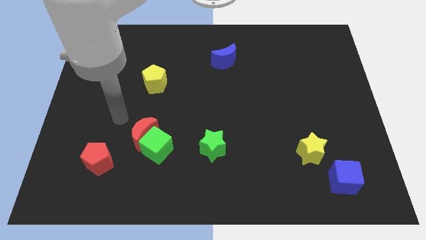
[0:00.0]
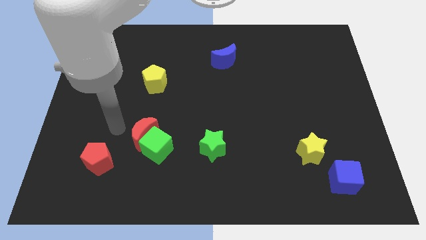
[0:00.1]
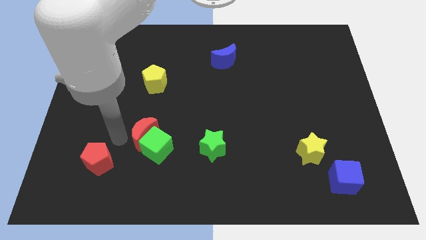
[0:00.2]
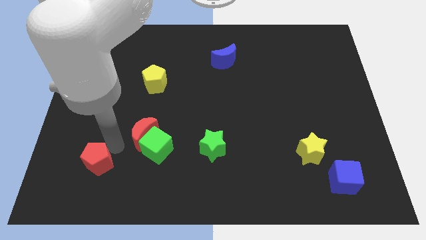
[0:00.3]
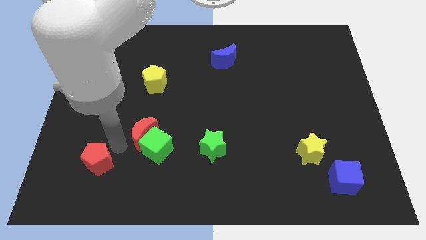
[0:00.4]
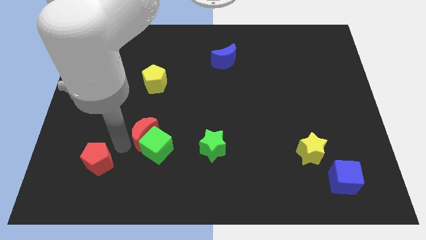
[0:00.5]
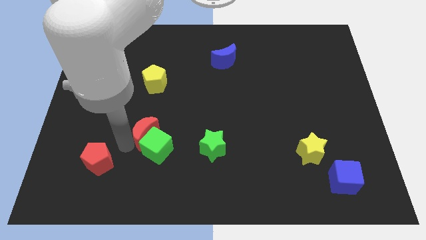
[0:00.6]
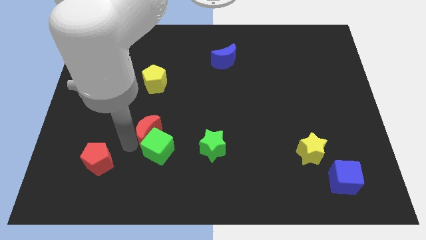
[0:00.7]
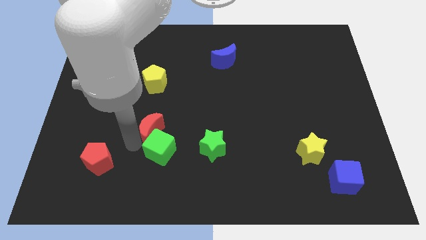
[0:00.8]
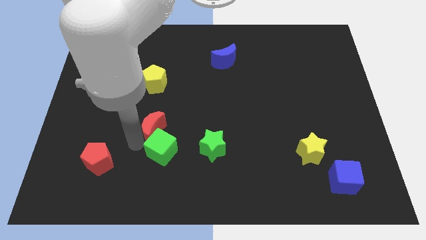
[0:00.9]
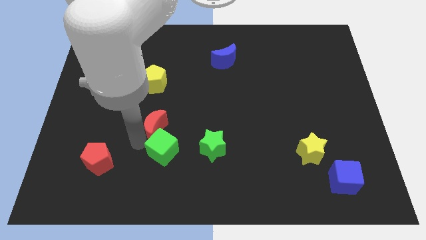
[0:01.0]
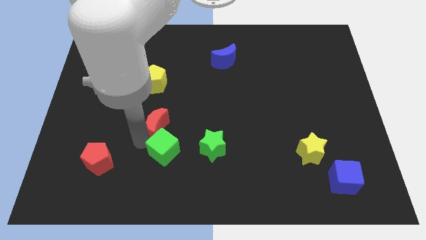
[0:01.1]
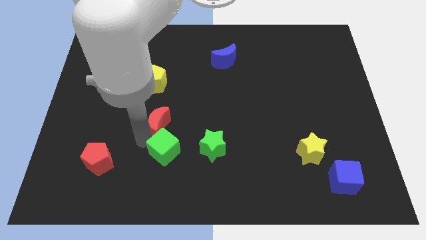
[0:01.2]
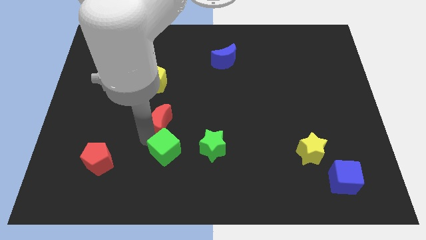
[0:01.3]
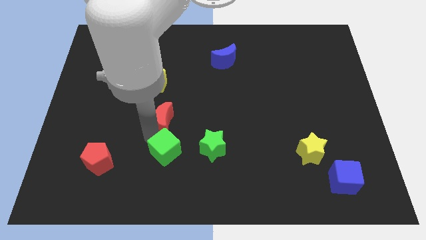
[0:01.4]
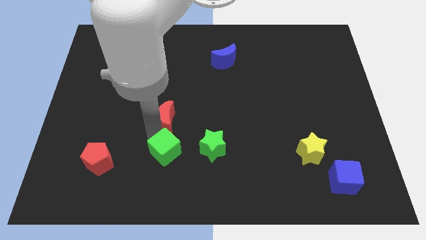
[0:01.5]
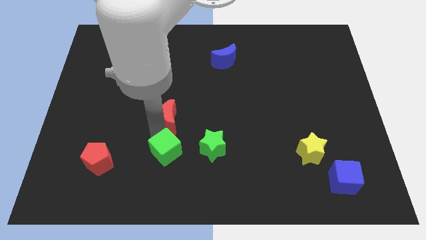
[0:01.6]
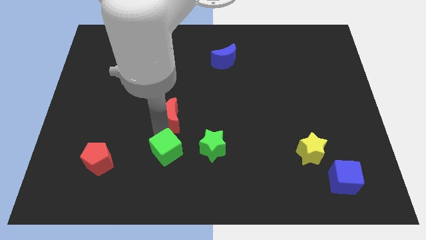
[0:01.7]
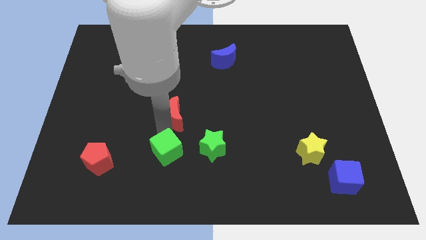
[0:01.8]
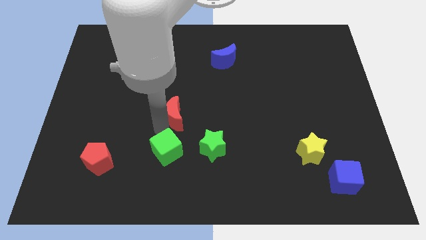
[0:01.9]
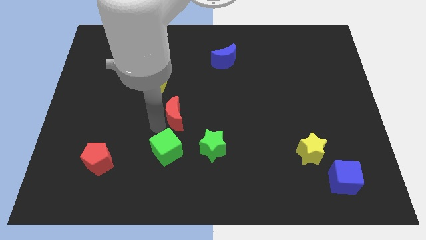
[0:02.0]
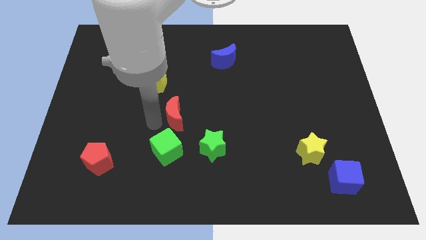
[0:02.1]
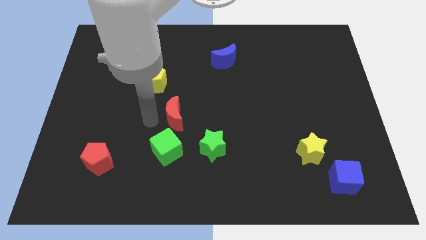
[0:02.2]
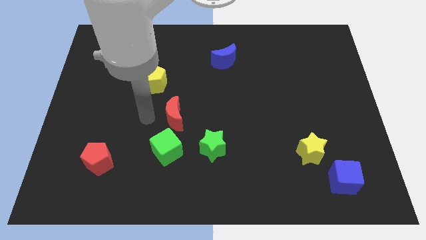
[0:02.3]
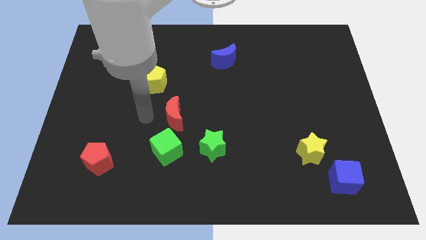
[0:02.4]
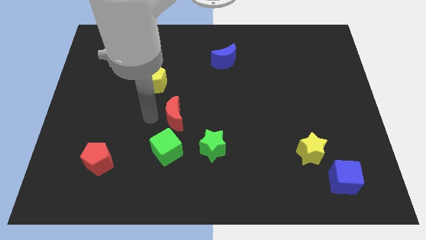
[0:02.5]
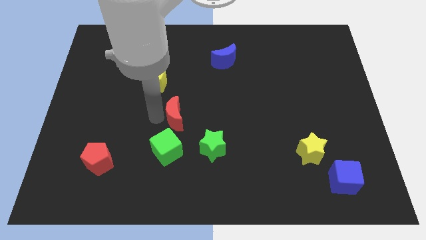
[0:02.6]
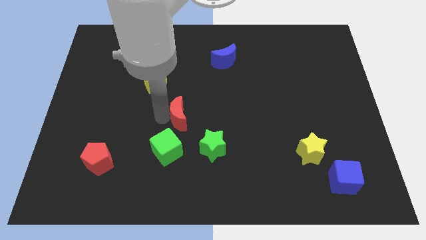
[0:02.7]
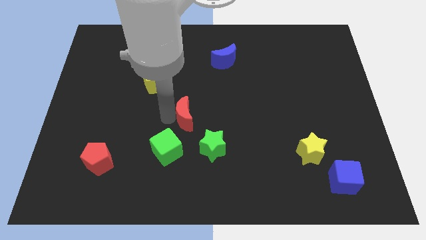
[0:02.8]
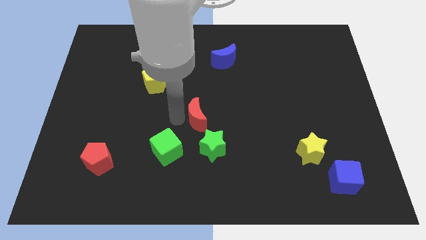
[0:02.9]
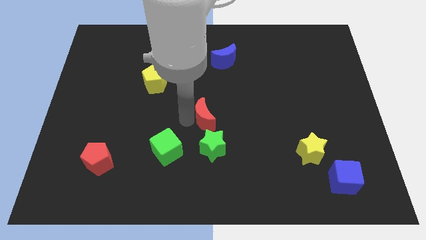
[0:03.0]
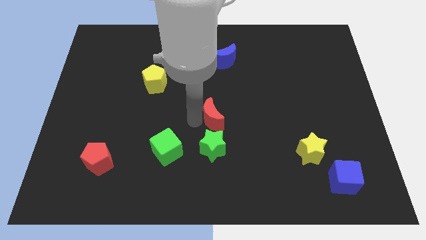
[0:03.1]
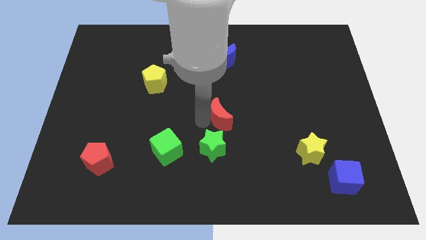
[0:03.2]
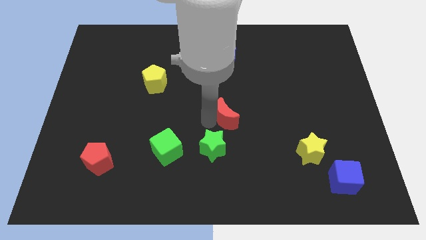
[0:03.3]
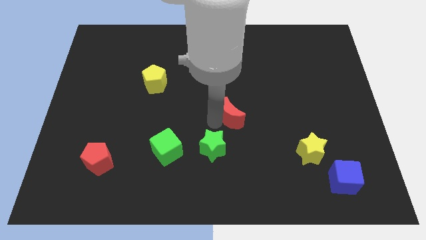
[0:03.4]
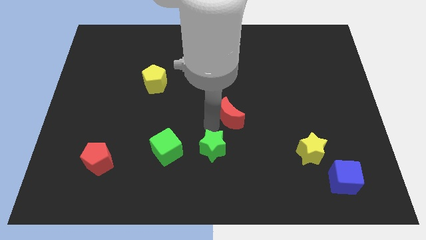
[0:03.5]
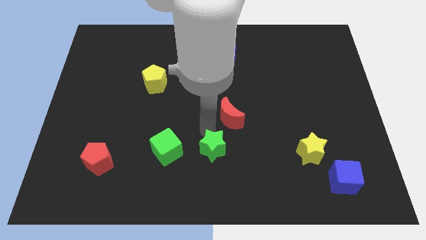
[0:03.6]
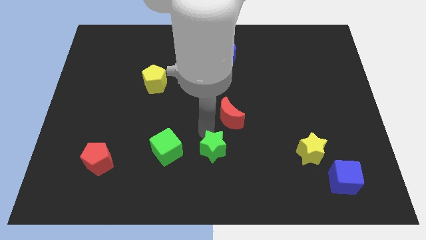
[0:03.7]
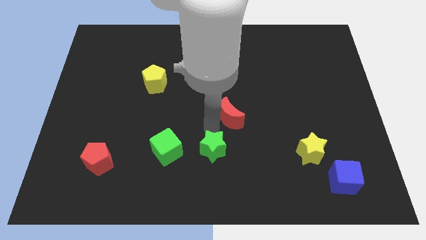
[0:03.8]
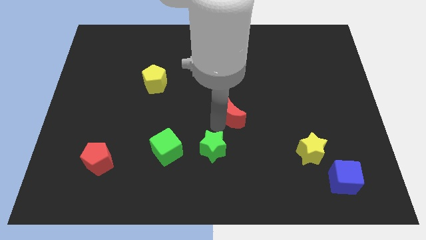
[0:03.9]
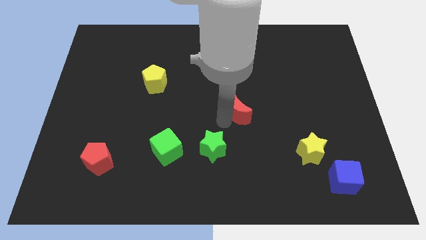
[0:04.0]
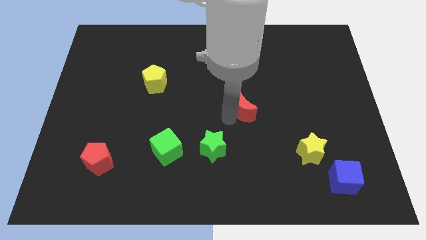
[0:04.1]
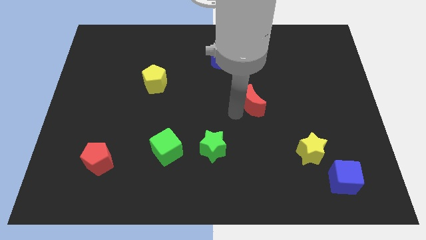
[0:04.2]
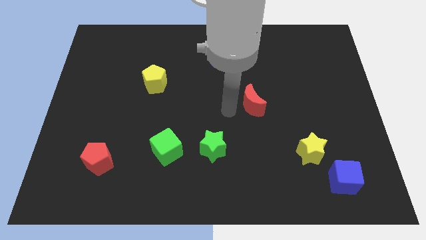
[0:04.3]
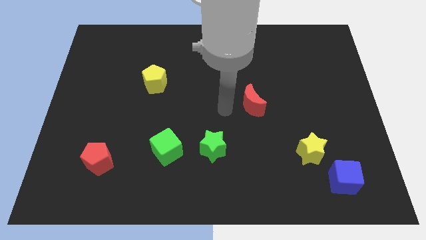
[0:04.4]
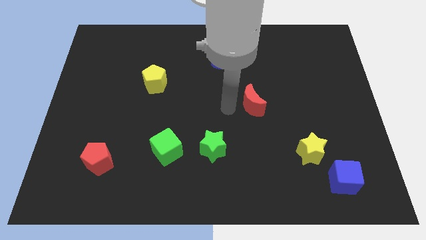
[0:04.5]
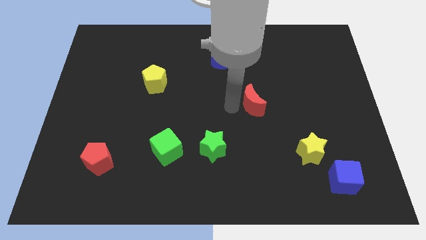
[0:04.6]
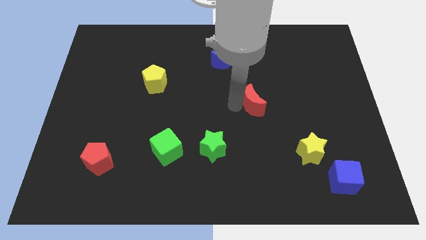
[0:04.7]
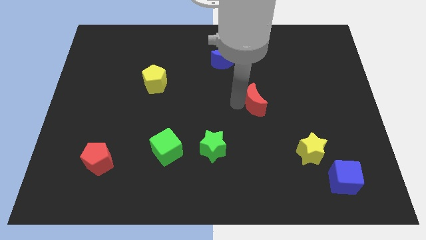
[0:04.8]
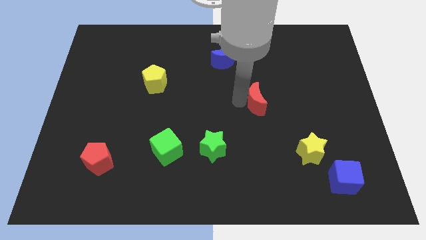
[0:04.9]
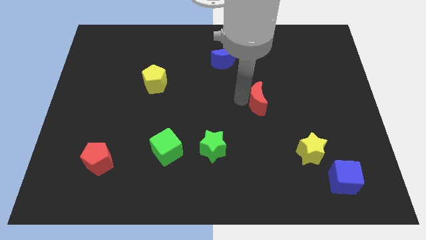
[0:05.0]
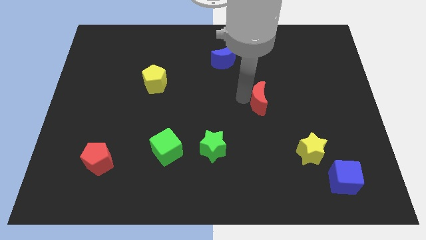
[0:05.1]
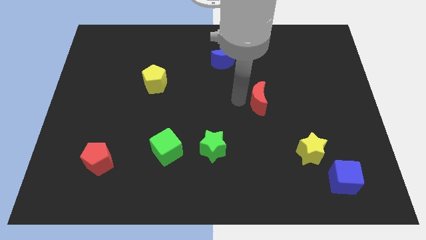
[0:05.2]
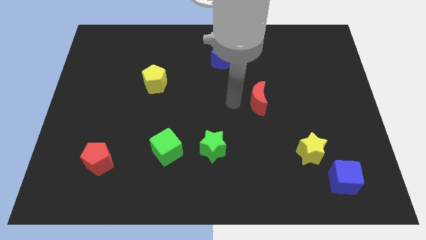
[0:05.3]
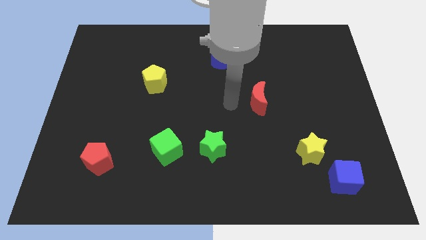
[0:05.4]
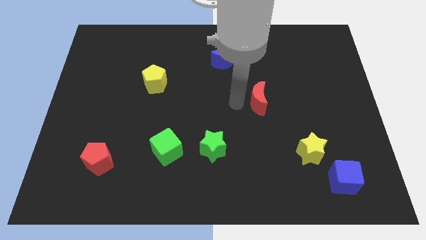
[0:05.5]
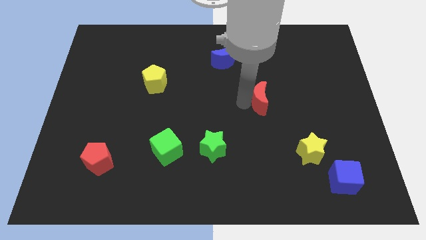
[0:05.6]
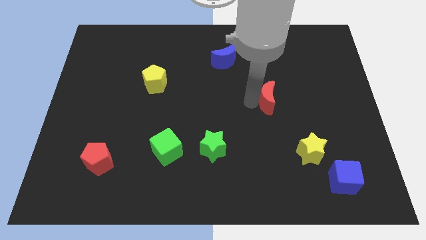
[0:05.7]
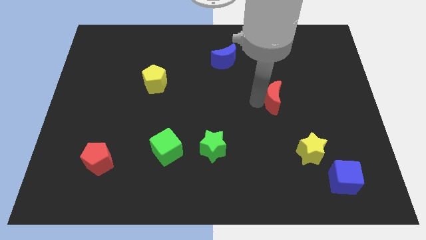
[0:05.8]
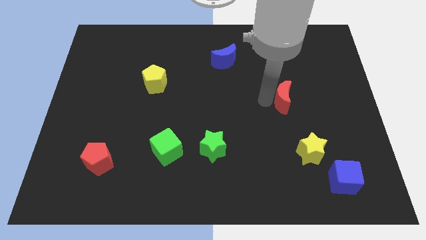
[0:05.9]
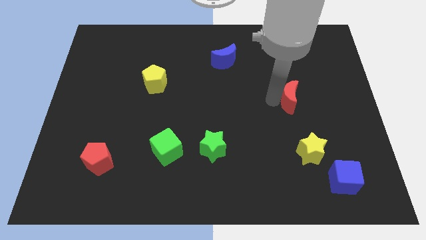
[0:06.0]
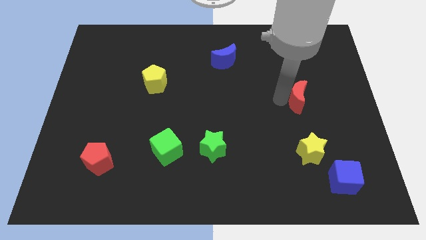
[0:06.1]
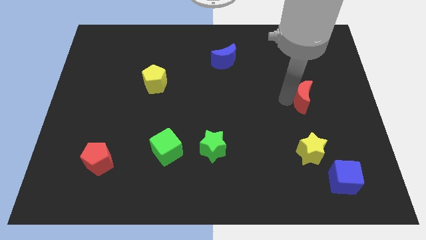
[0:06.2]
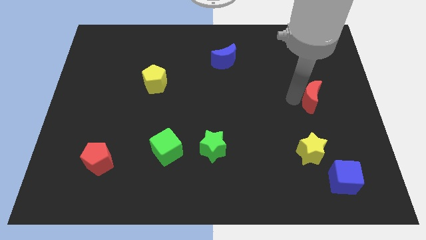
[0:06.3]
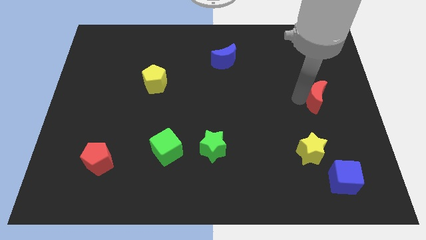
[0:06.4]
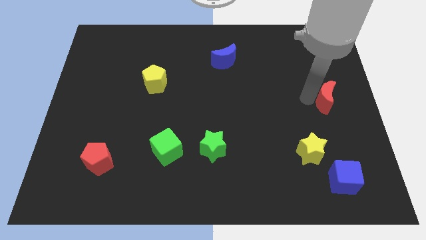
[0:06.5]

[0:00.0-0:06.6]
put the red moon to the right side
